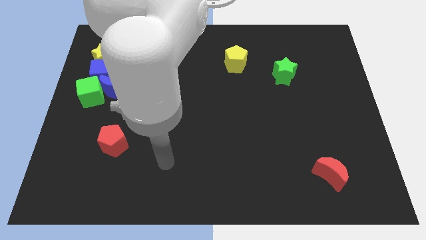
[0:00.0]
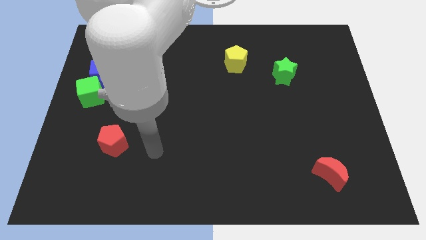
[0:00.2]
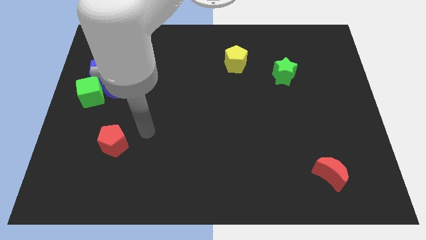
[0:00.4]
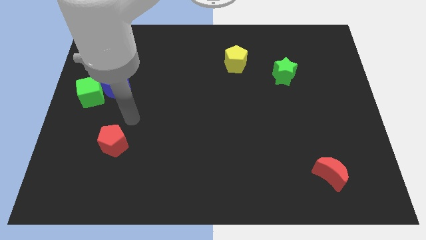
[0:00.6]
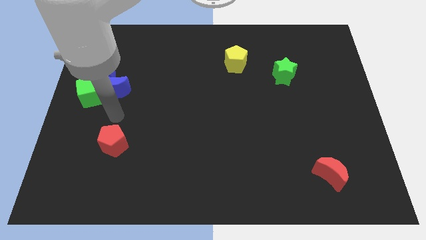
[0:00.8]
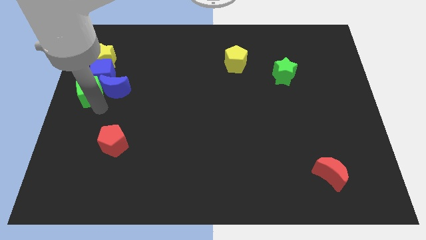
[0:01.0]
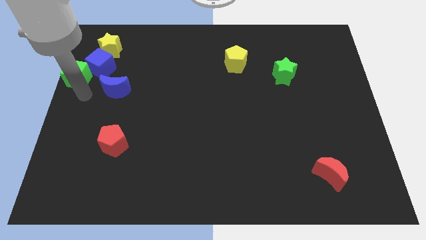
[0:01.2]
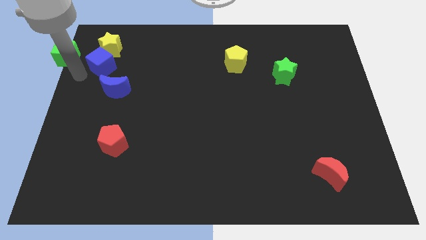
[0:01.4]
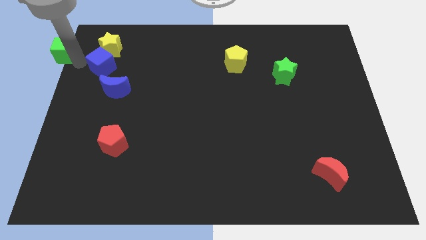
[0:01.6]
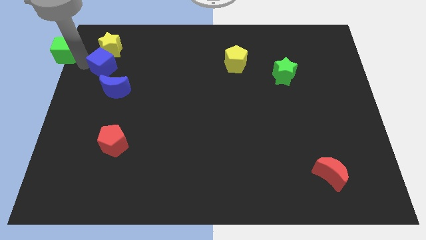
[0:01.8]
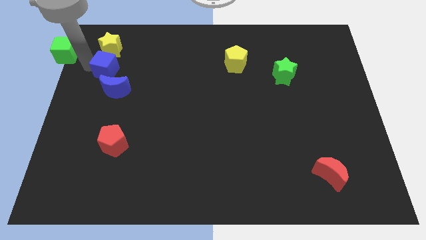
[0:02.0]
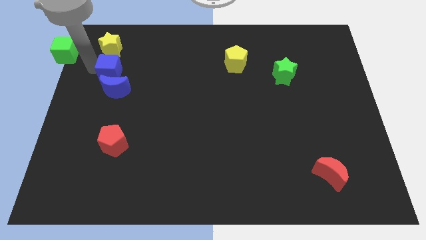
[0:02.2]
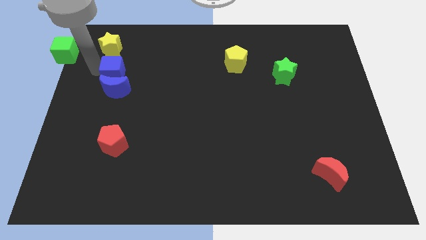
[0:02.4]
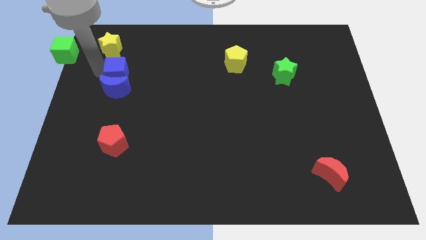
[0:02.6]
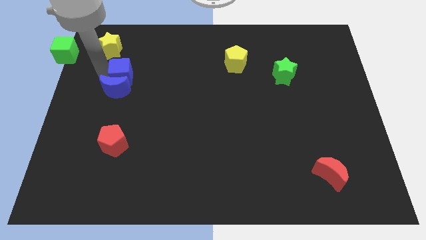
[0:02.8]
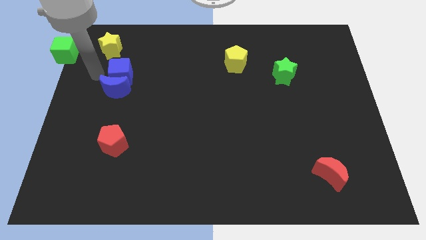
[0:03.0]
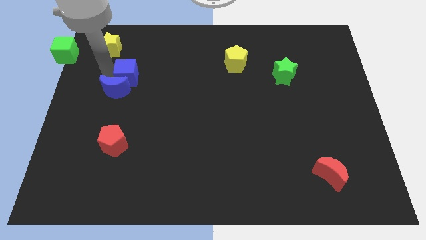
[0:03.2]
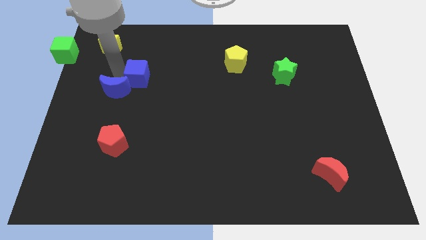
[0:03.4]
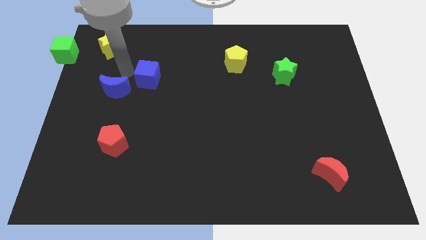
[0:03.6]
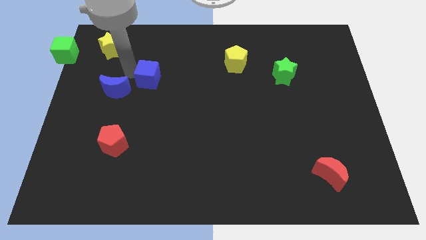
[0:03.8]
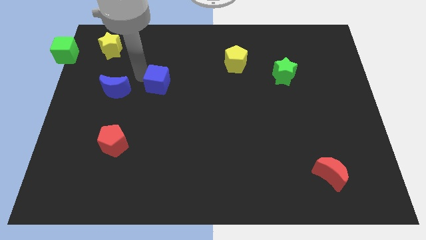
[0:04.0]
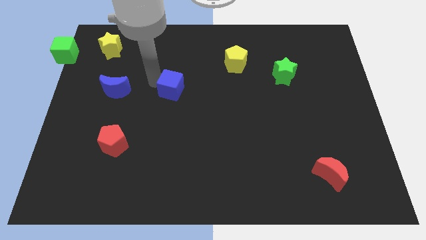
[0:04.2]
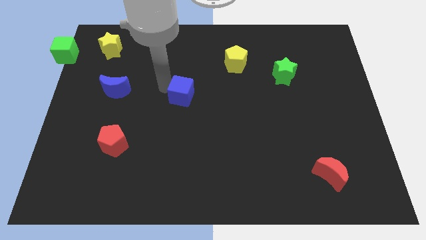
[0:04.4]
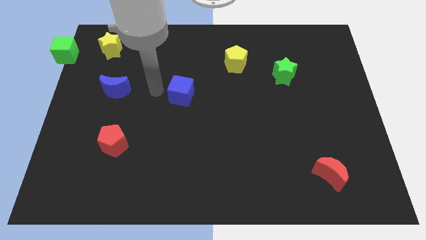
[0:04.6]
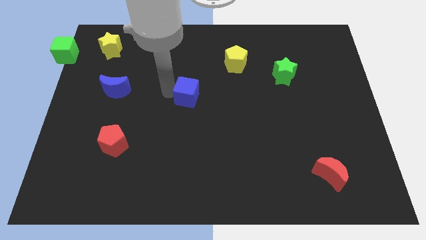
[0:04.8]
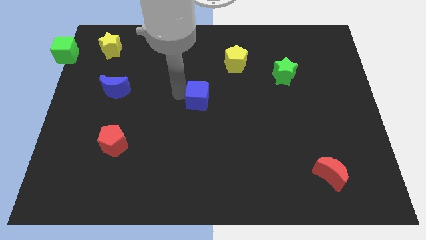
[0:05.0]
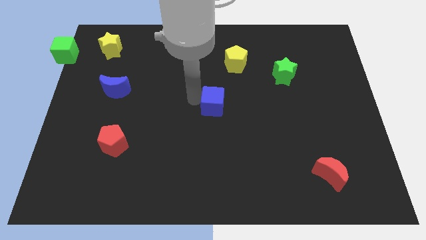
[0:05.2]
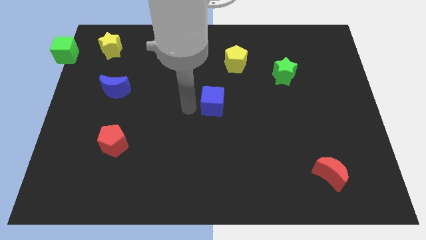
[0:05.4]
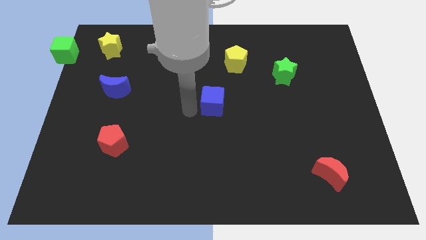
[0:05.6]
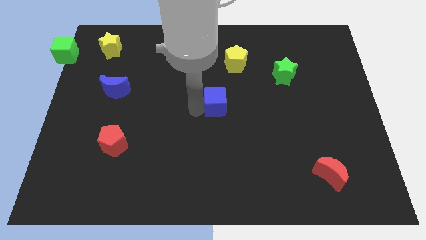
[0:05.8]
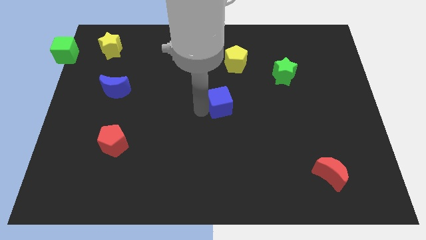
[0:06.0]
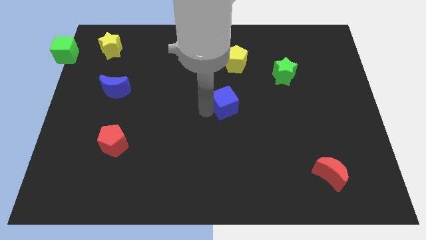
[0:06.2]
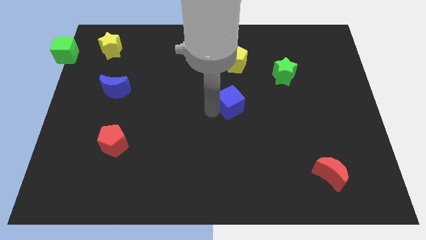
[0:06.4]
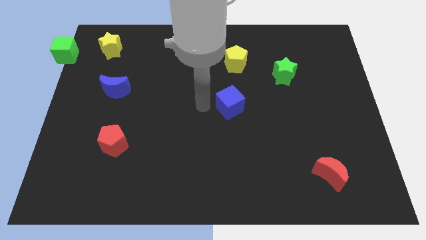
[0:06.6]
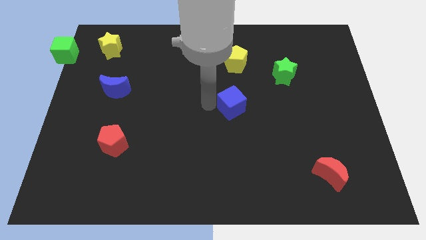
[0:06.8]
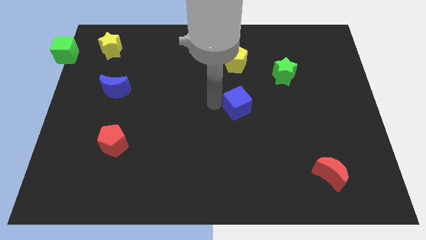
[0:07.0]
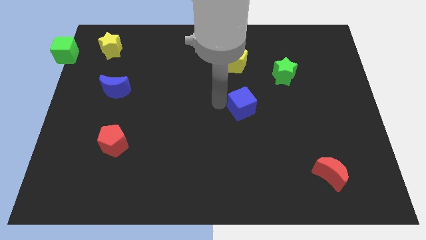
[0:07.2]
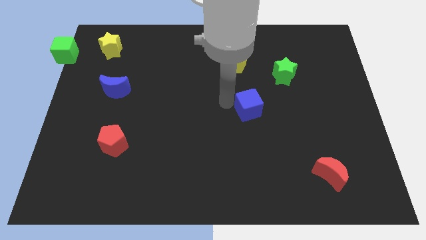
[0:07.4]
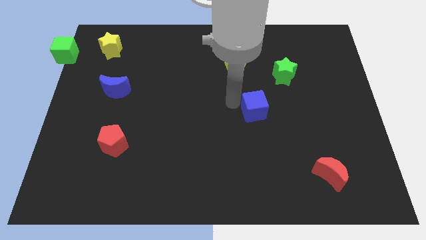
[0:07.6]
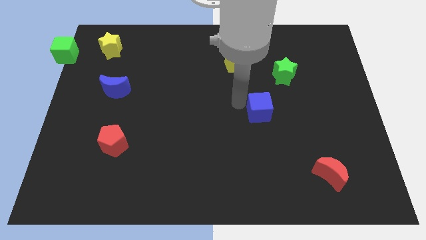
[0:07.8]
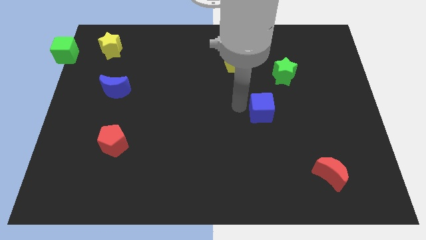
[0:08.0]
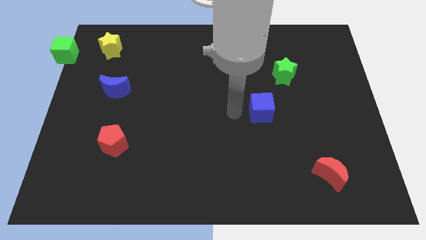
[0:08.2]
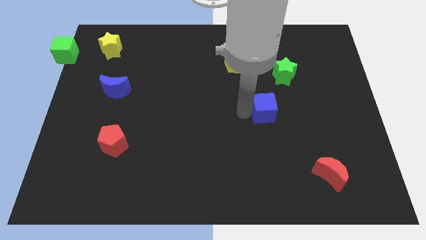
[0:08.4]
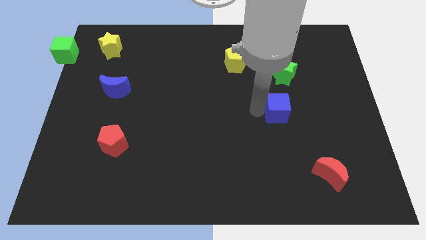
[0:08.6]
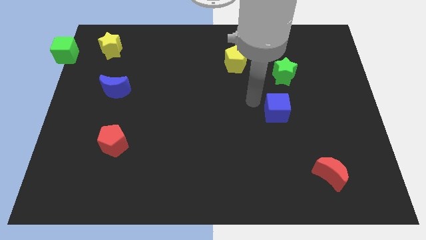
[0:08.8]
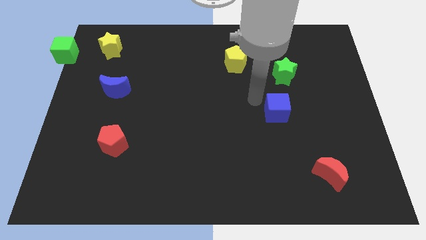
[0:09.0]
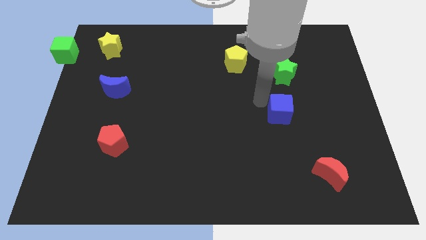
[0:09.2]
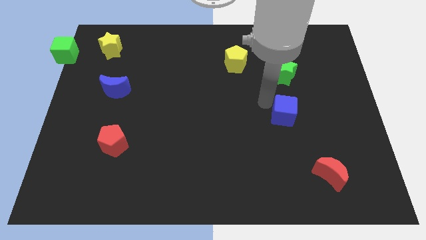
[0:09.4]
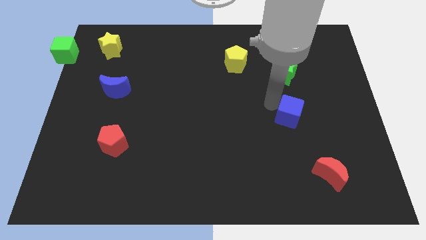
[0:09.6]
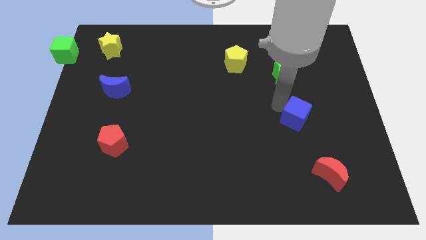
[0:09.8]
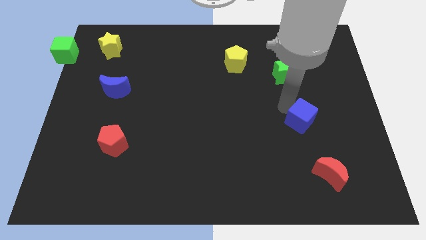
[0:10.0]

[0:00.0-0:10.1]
put the blue cube above the red moon

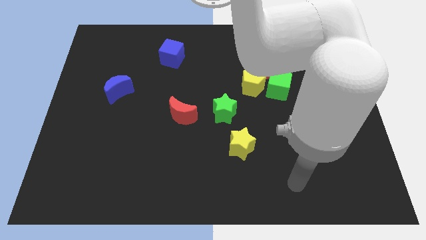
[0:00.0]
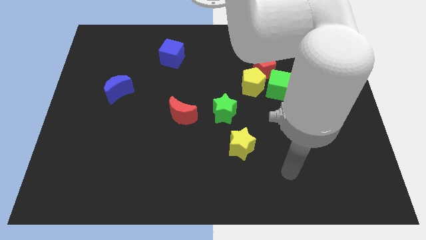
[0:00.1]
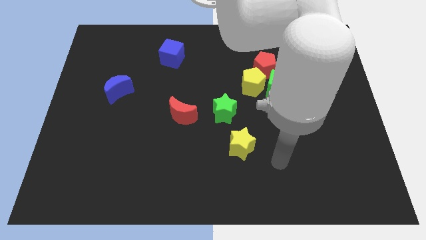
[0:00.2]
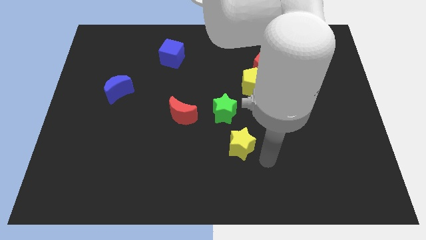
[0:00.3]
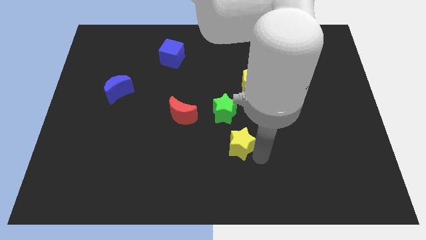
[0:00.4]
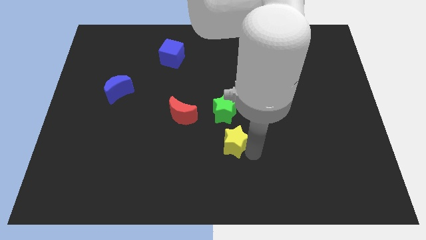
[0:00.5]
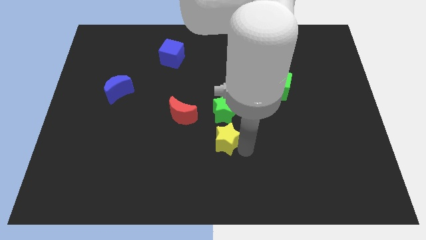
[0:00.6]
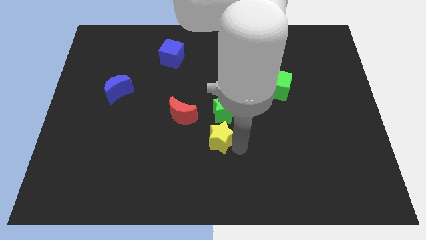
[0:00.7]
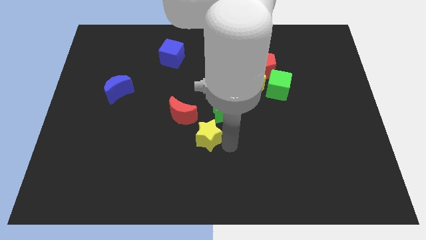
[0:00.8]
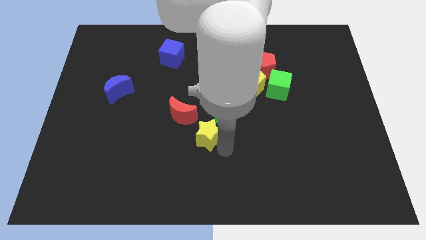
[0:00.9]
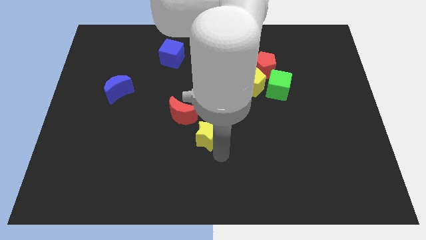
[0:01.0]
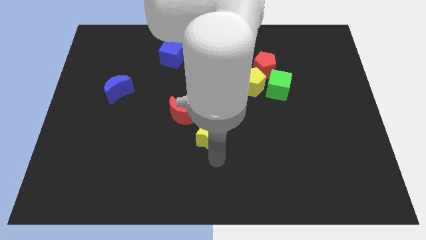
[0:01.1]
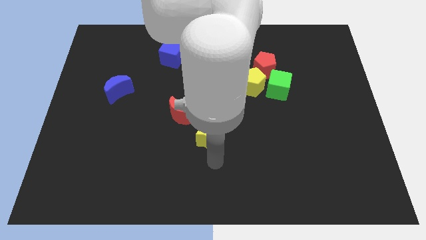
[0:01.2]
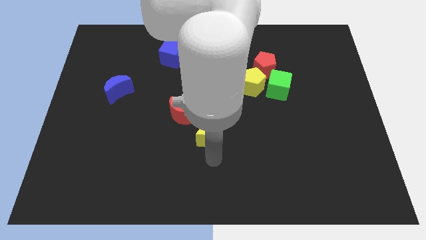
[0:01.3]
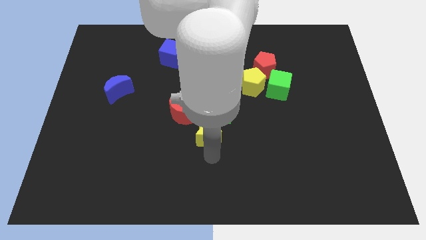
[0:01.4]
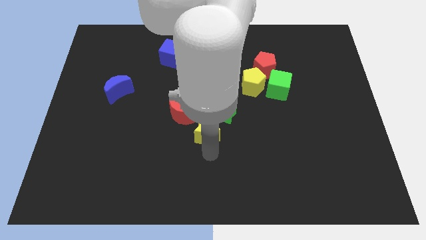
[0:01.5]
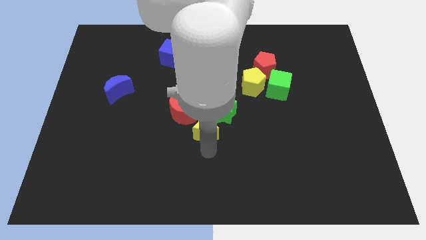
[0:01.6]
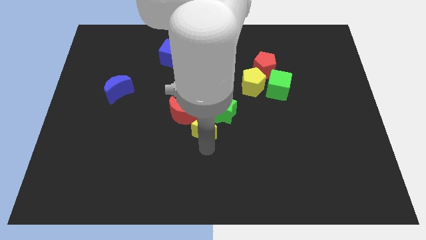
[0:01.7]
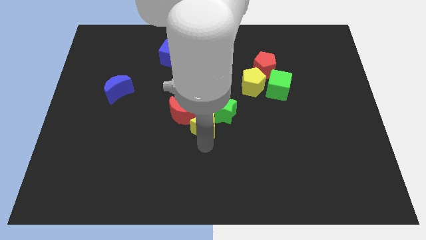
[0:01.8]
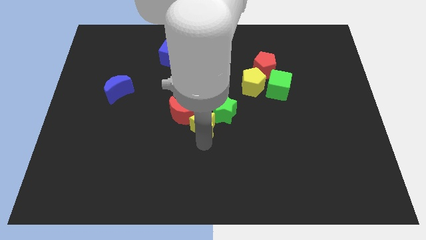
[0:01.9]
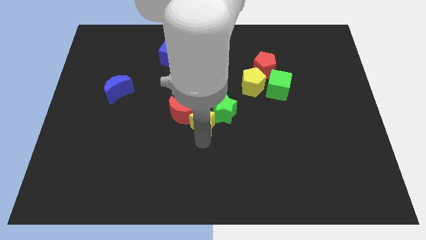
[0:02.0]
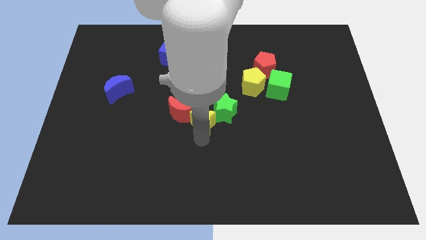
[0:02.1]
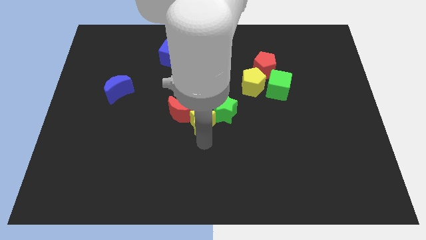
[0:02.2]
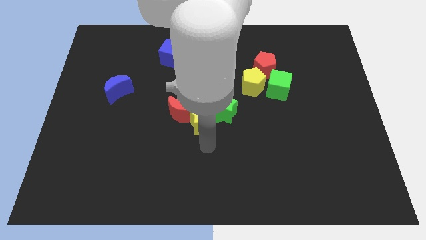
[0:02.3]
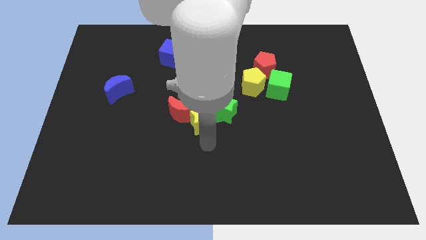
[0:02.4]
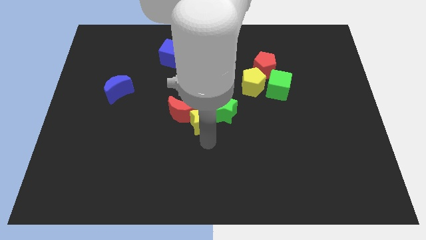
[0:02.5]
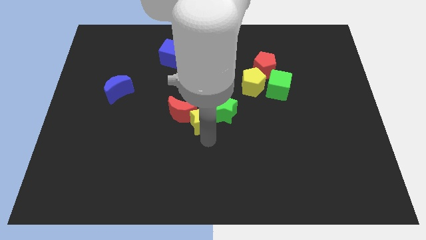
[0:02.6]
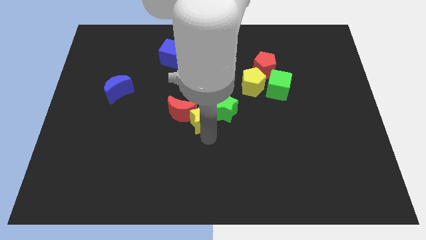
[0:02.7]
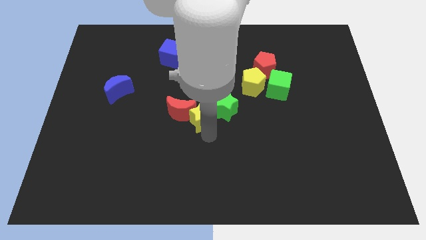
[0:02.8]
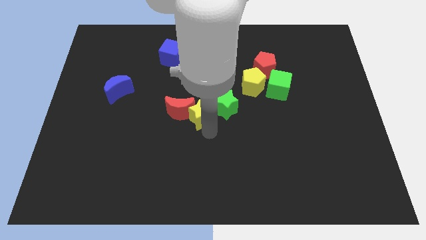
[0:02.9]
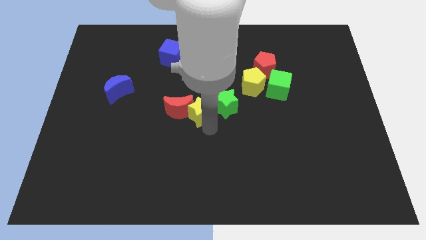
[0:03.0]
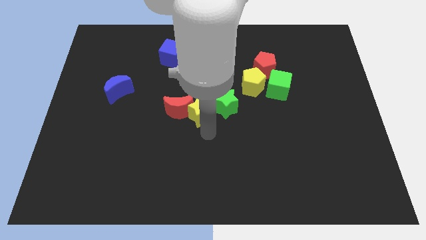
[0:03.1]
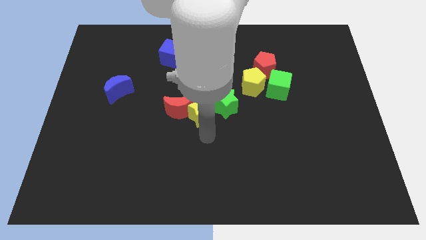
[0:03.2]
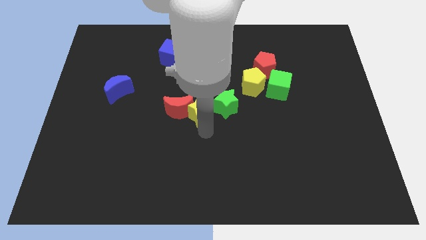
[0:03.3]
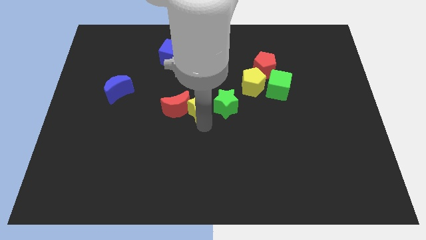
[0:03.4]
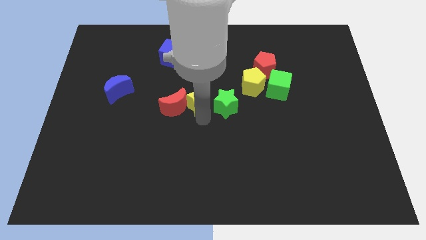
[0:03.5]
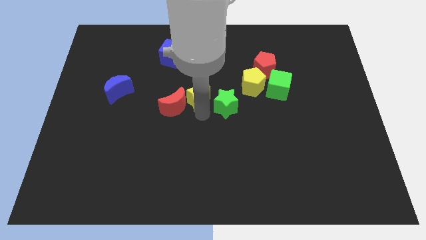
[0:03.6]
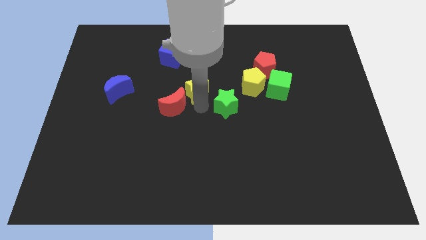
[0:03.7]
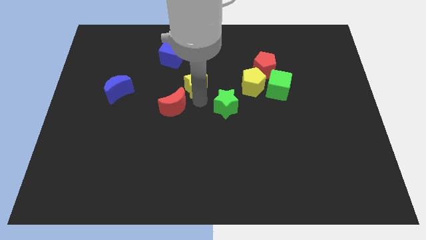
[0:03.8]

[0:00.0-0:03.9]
slide the yellow star to the bottom right of the blue cube
